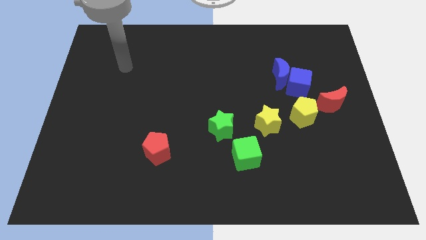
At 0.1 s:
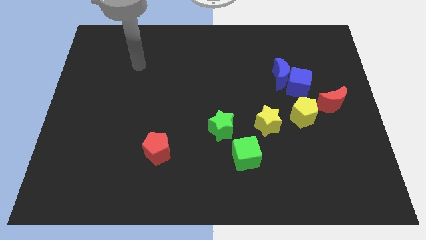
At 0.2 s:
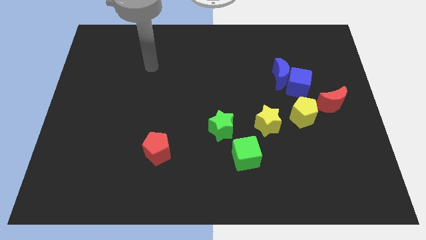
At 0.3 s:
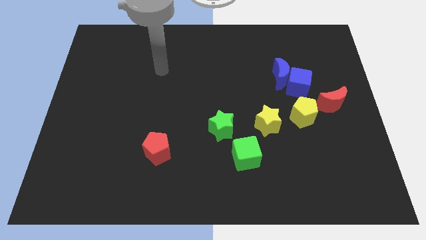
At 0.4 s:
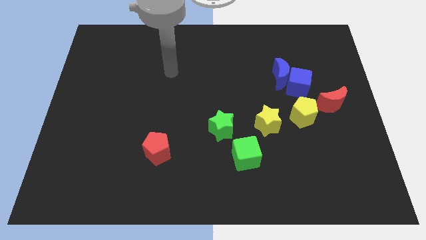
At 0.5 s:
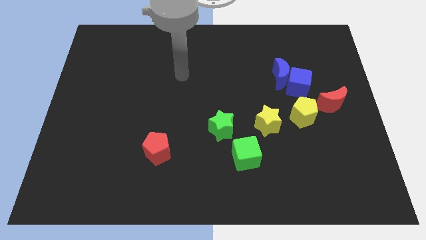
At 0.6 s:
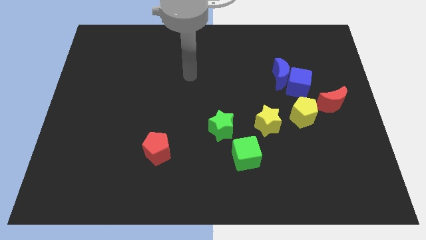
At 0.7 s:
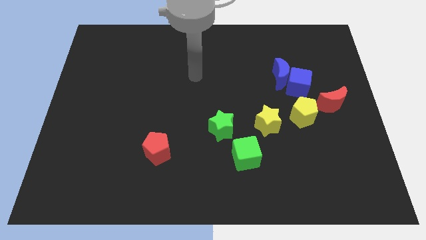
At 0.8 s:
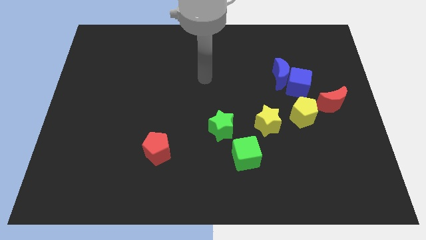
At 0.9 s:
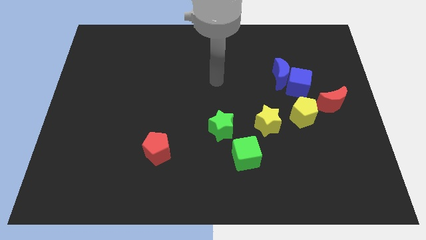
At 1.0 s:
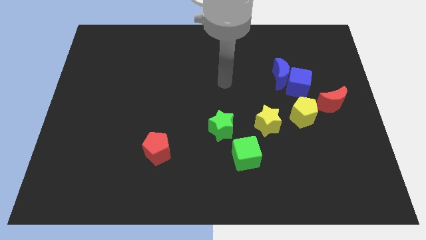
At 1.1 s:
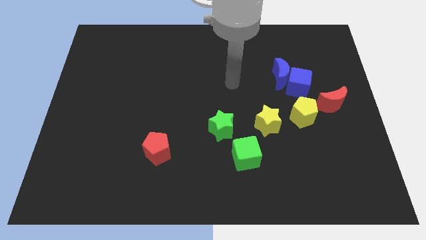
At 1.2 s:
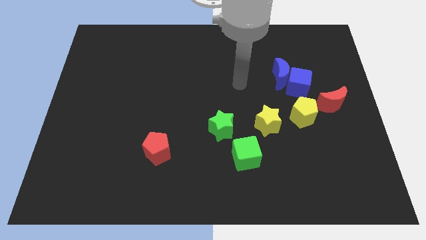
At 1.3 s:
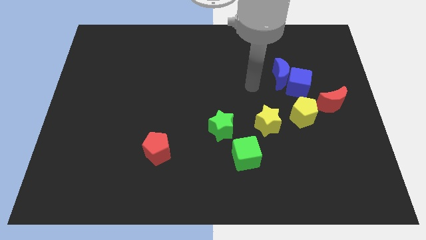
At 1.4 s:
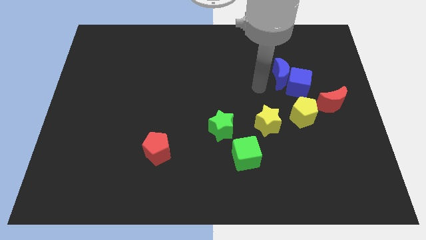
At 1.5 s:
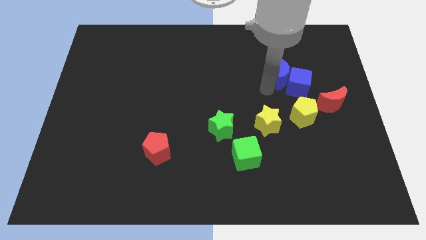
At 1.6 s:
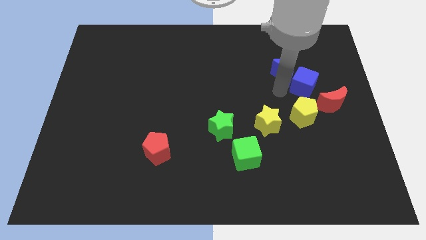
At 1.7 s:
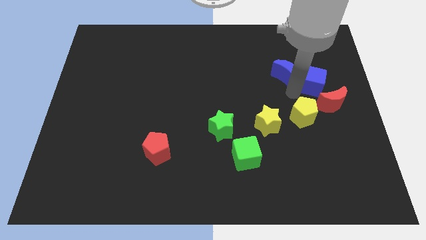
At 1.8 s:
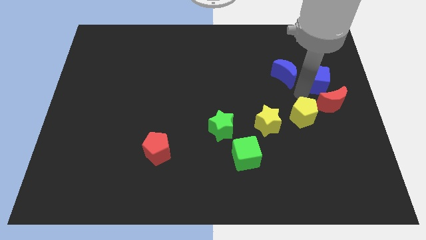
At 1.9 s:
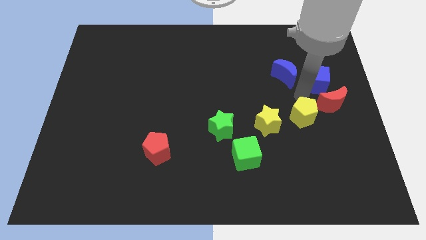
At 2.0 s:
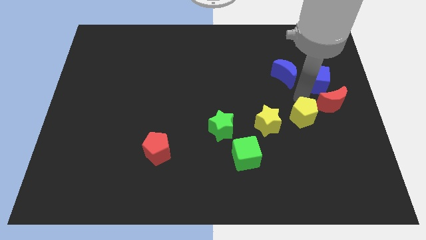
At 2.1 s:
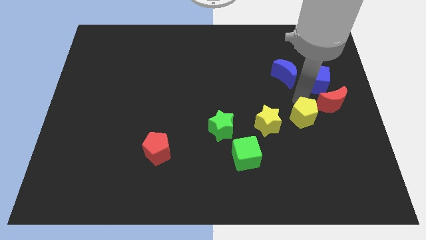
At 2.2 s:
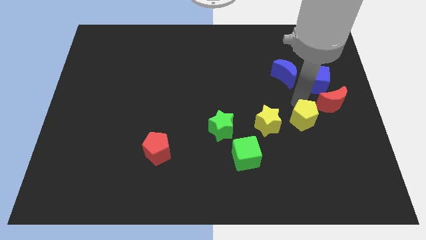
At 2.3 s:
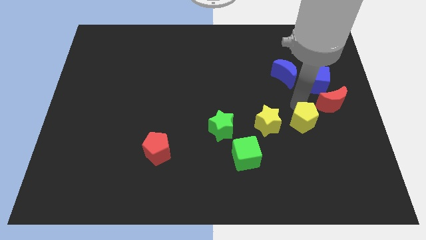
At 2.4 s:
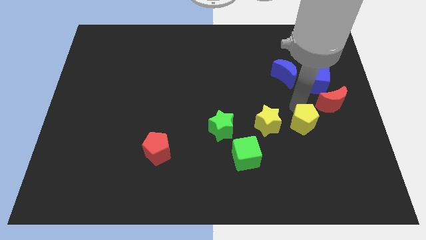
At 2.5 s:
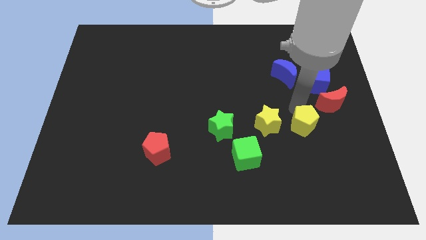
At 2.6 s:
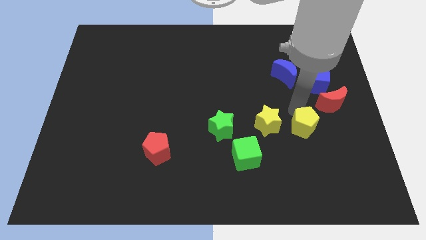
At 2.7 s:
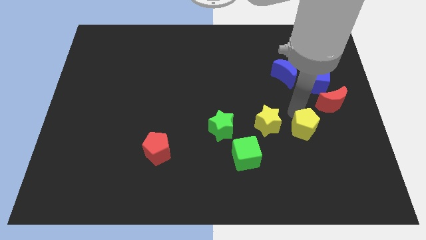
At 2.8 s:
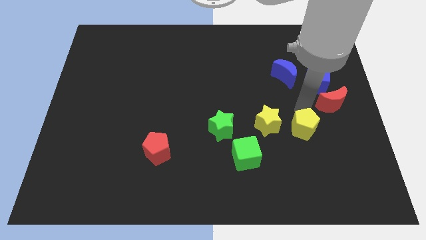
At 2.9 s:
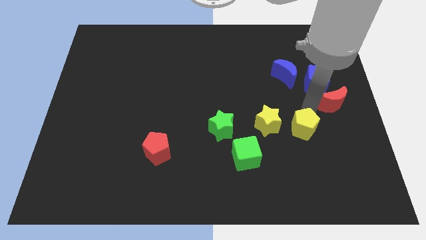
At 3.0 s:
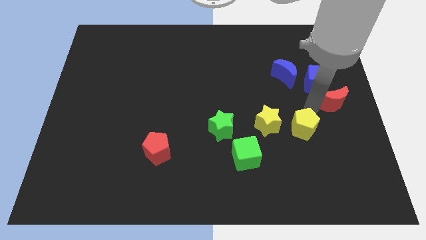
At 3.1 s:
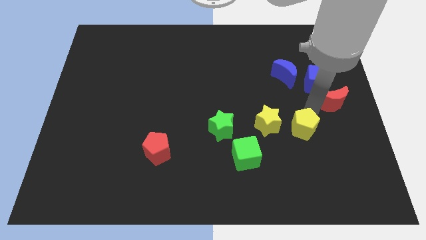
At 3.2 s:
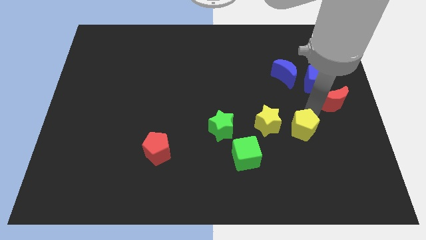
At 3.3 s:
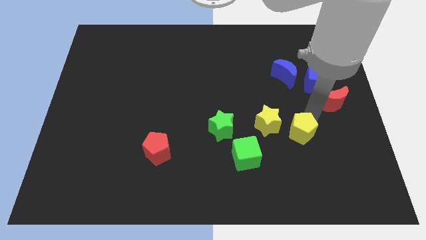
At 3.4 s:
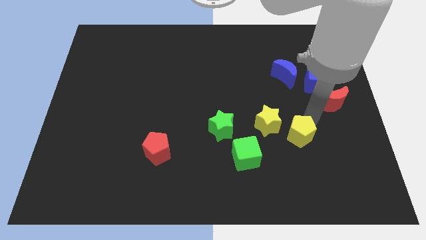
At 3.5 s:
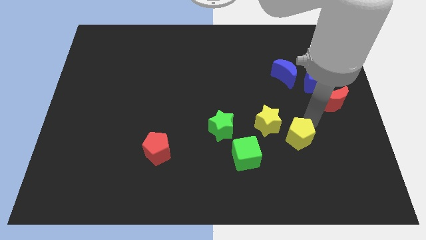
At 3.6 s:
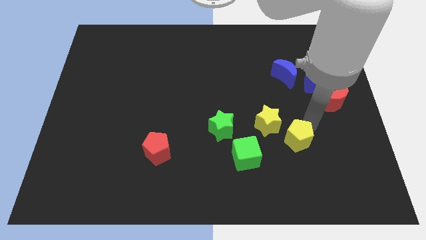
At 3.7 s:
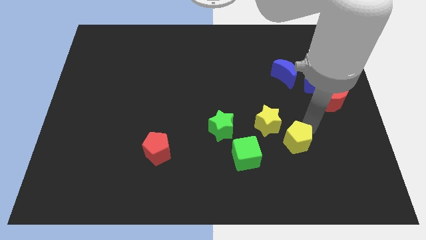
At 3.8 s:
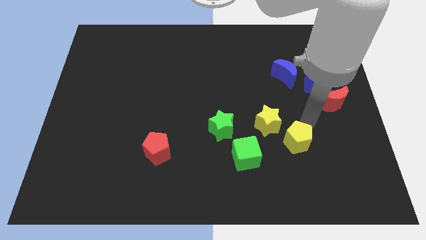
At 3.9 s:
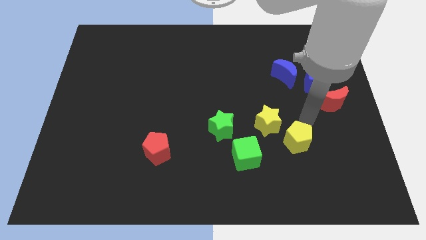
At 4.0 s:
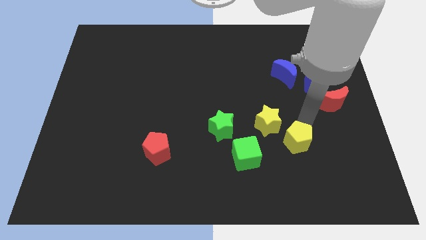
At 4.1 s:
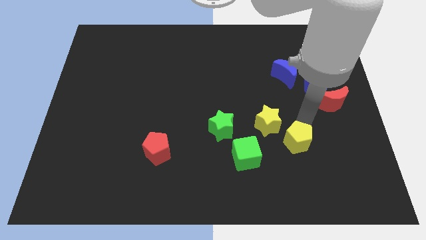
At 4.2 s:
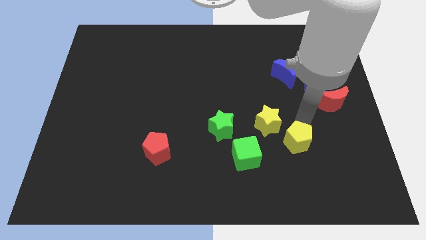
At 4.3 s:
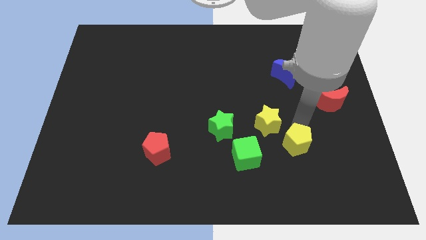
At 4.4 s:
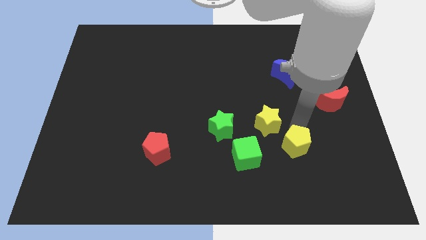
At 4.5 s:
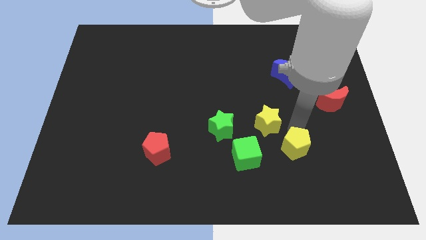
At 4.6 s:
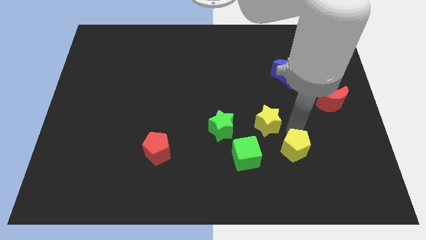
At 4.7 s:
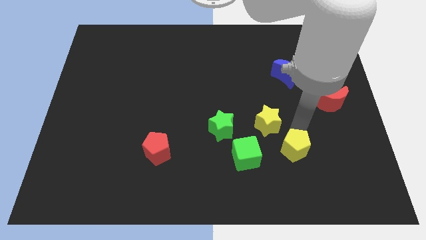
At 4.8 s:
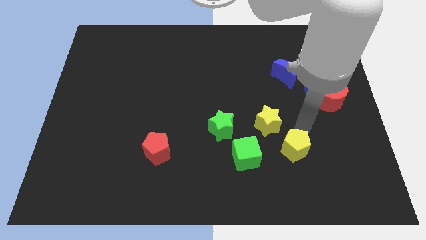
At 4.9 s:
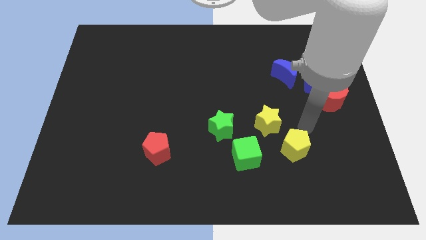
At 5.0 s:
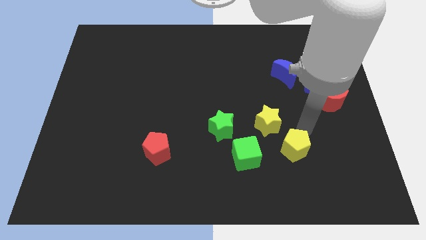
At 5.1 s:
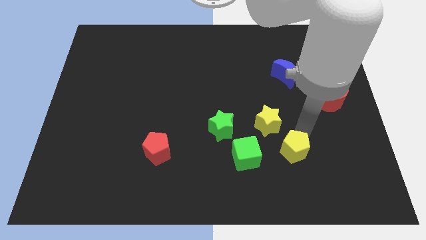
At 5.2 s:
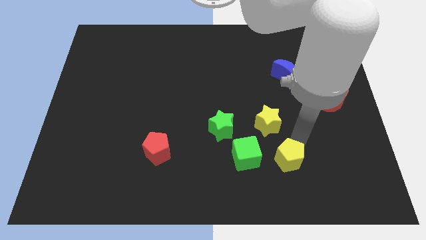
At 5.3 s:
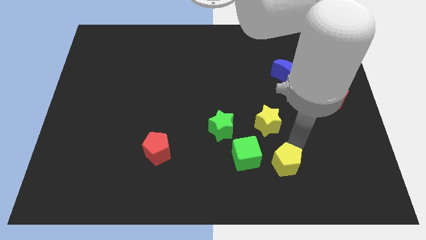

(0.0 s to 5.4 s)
push the yellow pentagon diagonally down and to the right of the green cube

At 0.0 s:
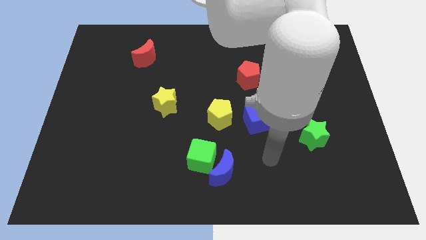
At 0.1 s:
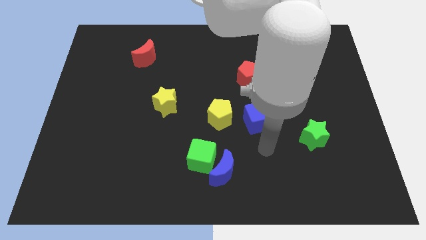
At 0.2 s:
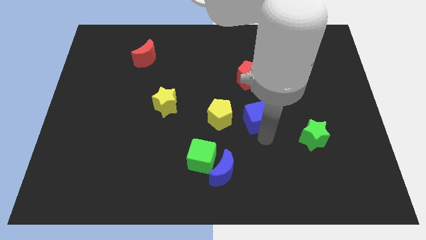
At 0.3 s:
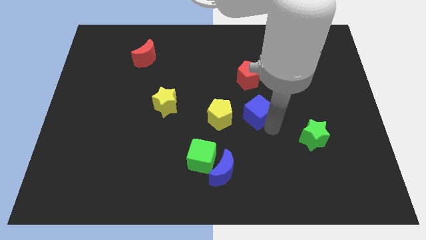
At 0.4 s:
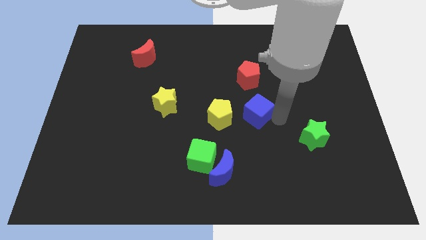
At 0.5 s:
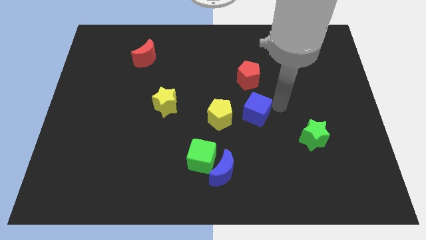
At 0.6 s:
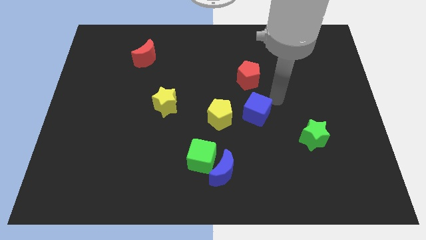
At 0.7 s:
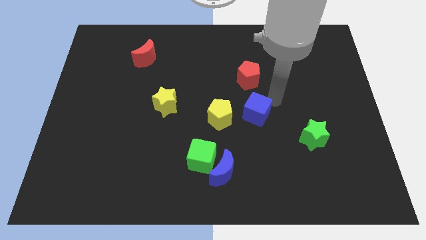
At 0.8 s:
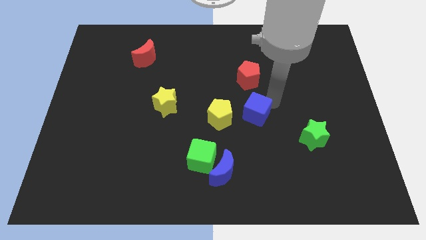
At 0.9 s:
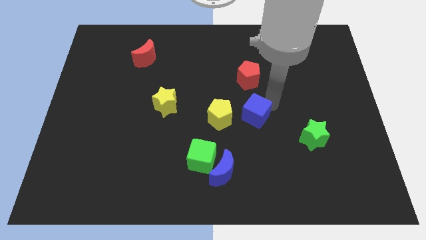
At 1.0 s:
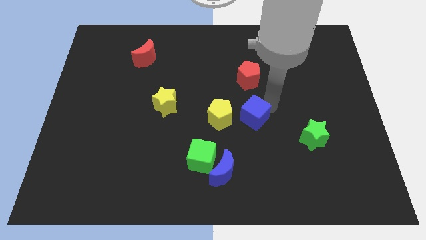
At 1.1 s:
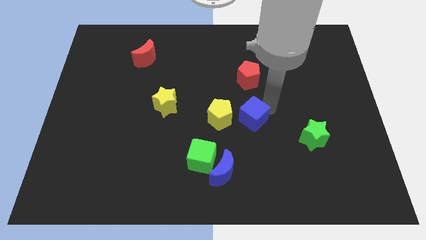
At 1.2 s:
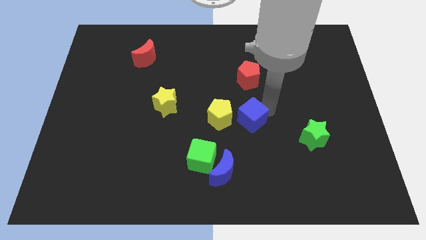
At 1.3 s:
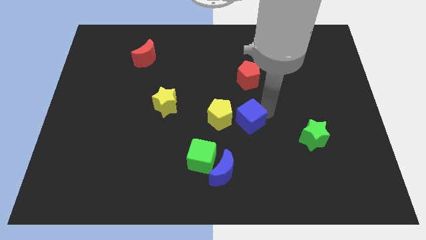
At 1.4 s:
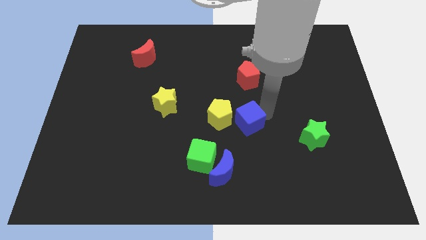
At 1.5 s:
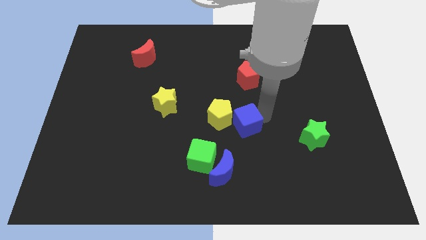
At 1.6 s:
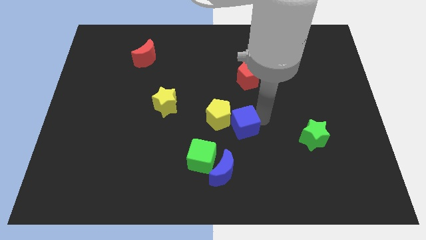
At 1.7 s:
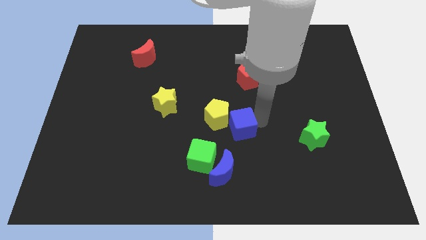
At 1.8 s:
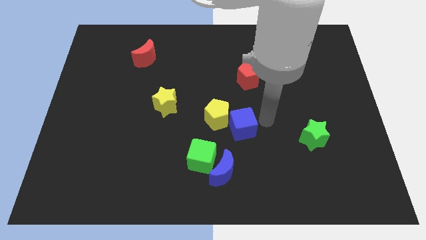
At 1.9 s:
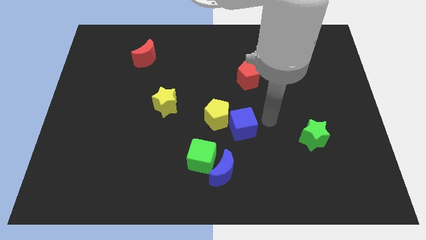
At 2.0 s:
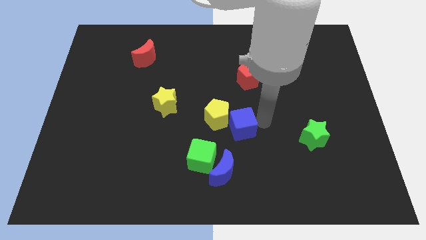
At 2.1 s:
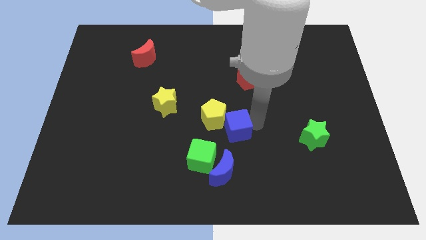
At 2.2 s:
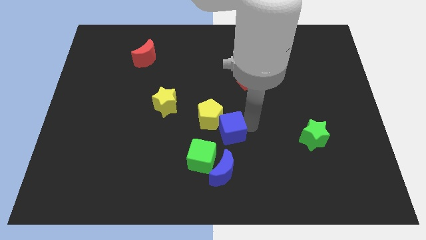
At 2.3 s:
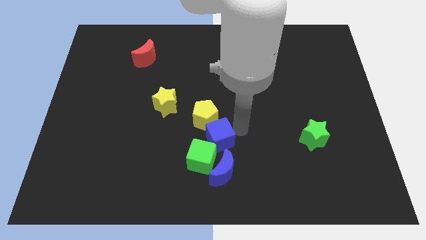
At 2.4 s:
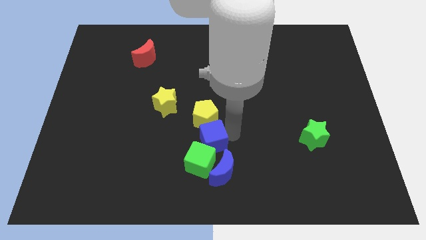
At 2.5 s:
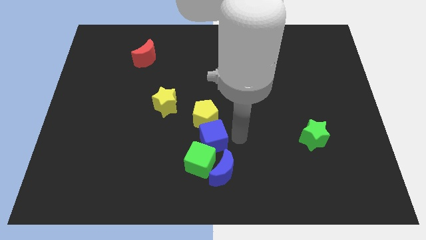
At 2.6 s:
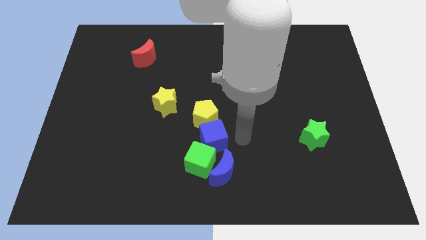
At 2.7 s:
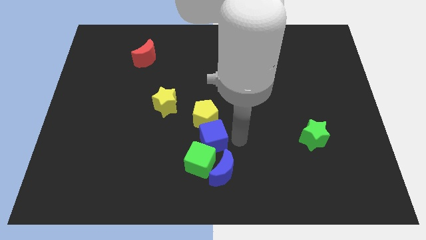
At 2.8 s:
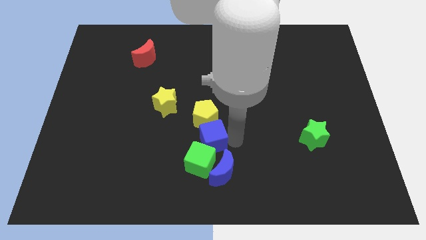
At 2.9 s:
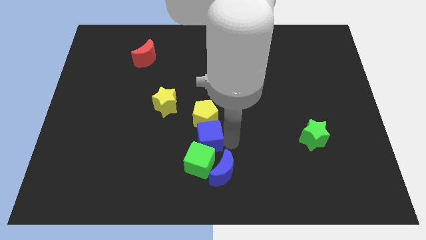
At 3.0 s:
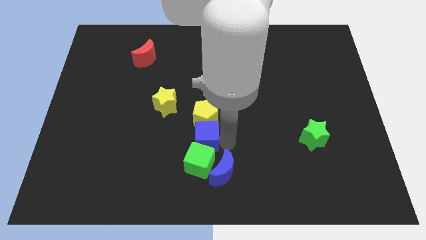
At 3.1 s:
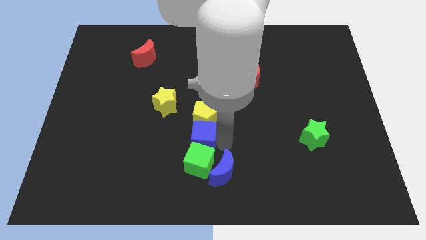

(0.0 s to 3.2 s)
move the blue cube to the top left side of the green cube
